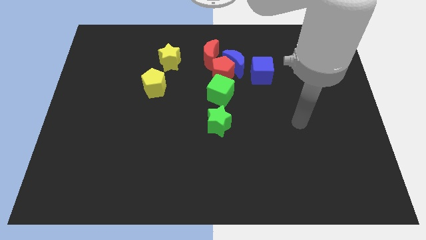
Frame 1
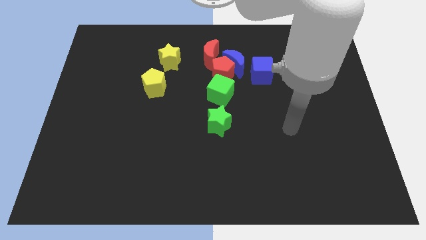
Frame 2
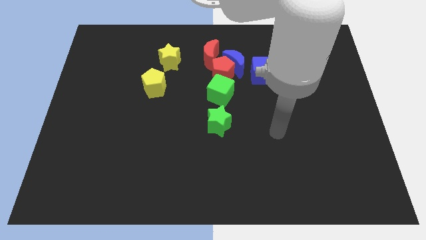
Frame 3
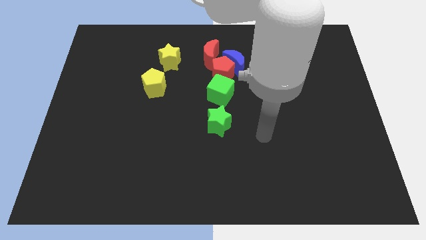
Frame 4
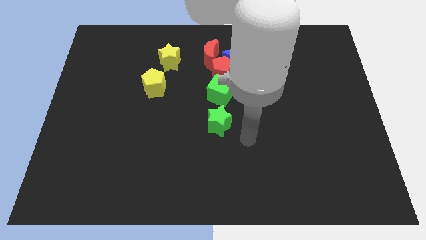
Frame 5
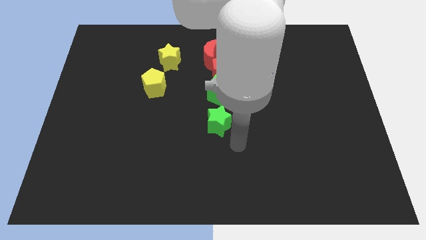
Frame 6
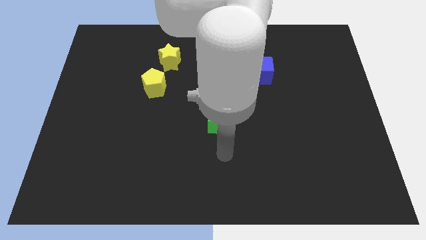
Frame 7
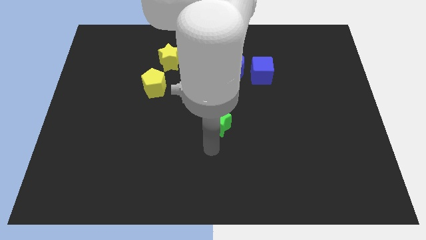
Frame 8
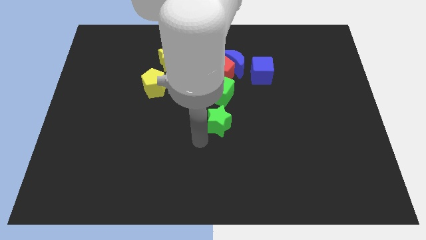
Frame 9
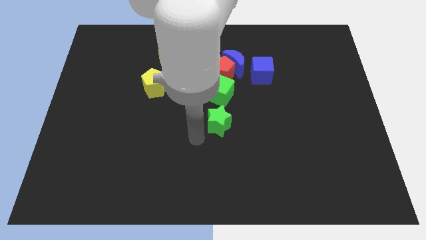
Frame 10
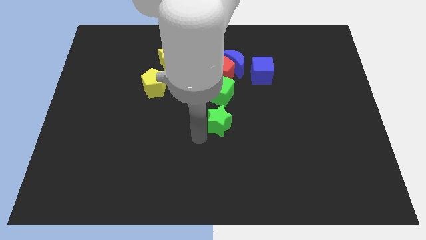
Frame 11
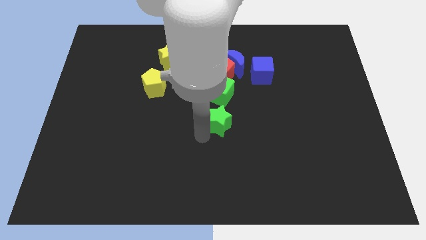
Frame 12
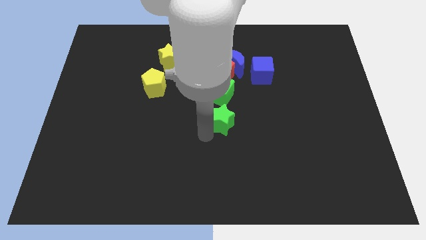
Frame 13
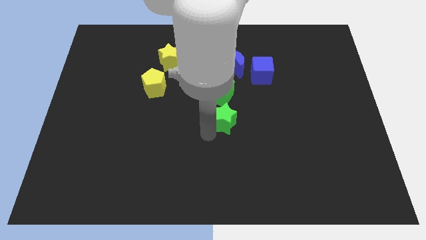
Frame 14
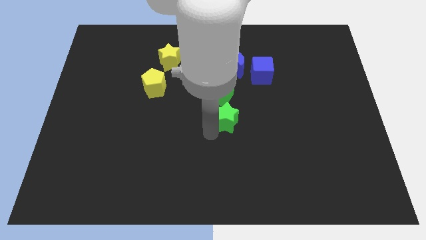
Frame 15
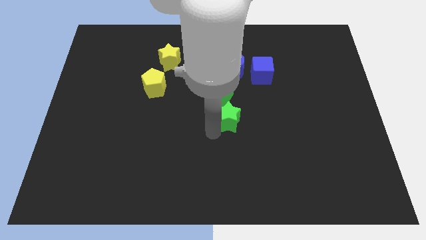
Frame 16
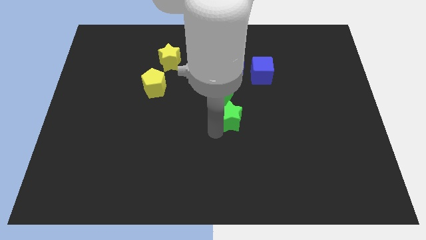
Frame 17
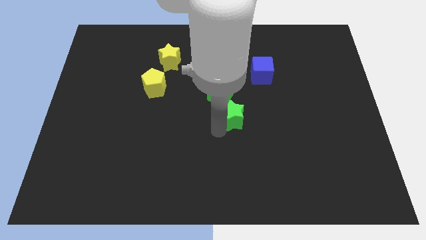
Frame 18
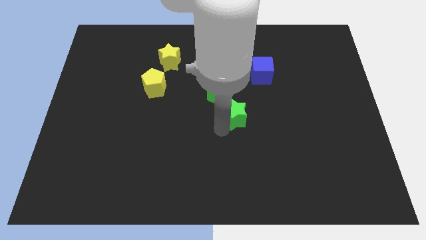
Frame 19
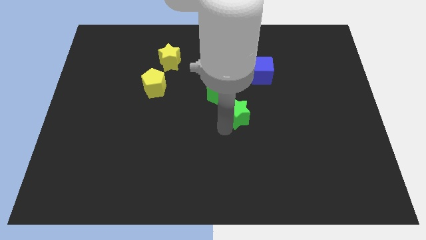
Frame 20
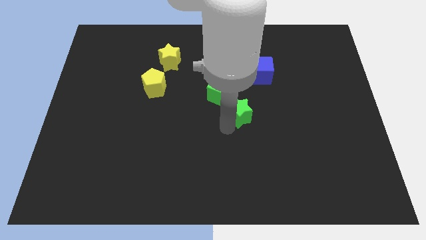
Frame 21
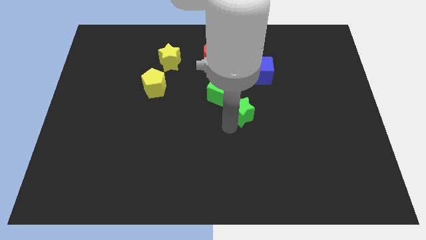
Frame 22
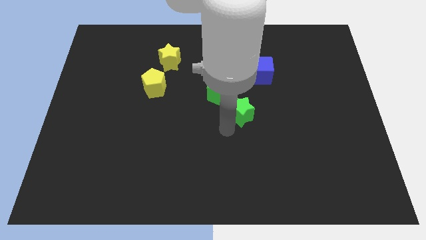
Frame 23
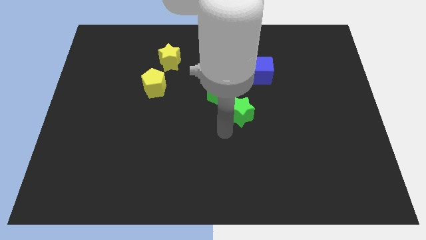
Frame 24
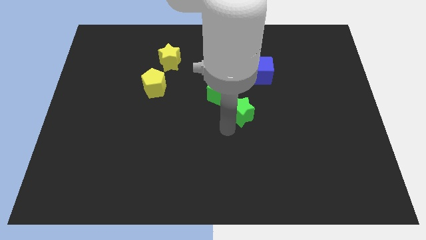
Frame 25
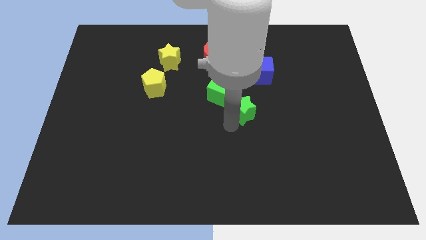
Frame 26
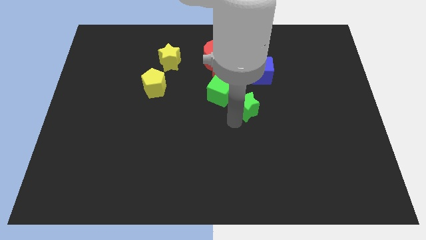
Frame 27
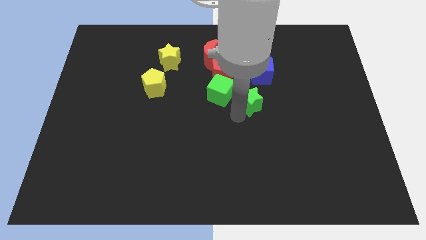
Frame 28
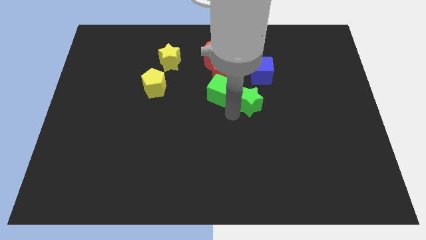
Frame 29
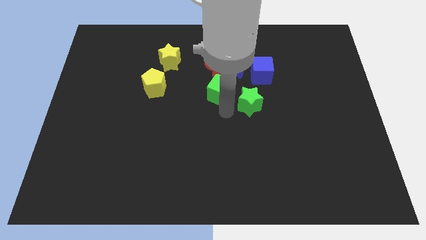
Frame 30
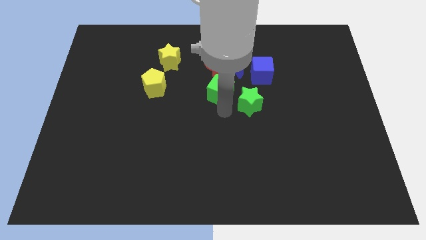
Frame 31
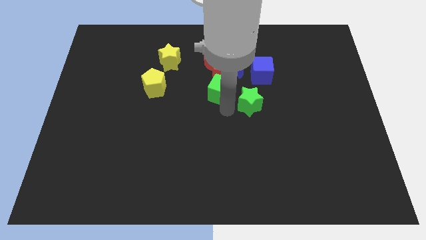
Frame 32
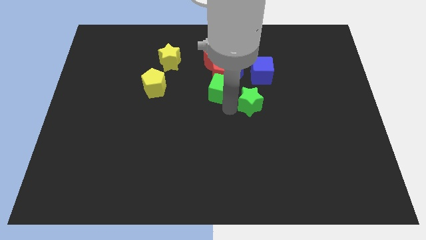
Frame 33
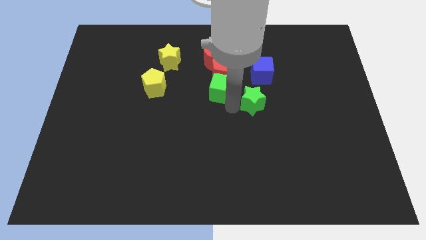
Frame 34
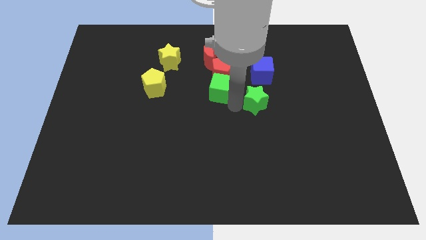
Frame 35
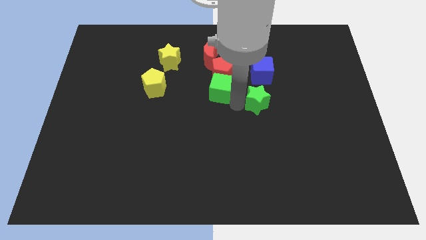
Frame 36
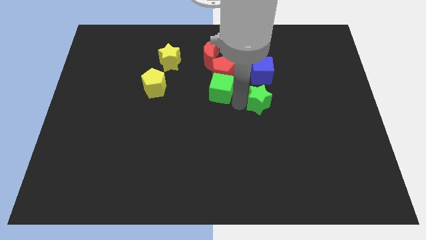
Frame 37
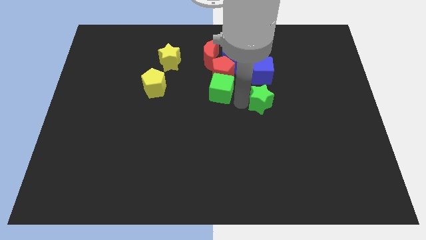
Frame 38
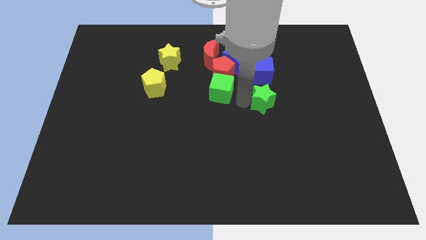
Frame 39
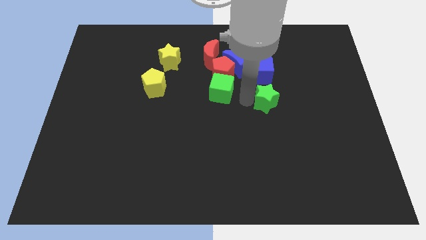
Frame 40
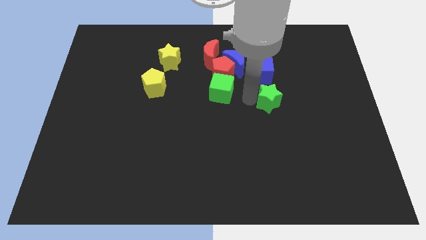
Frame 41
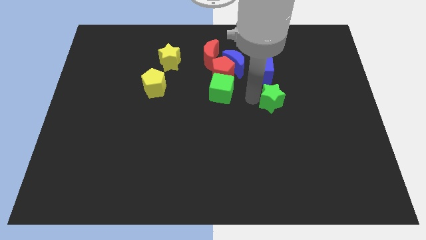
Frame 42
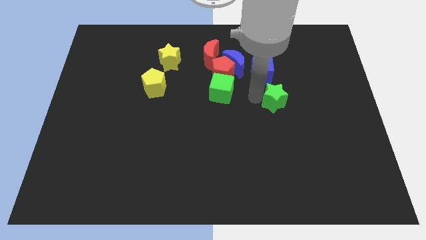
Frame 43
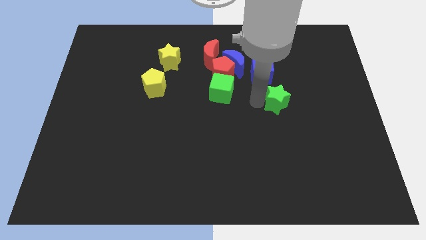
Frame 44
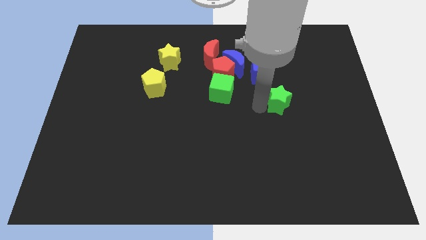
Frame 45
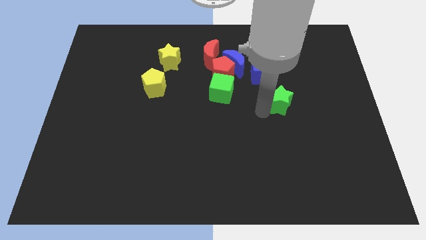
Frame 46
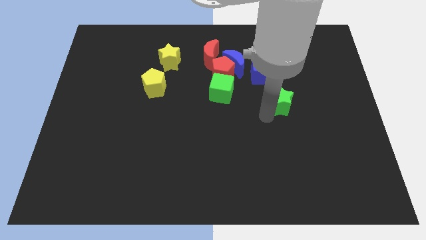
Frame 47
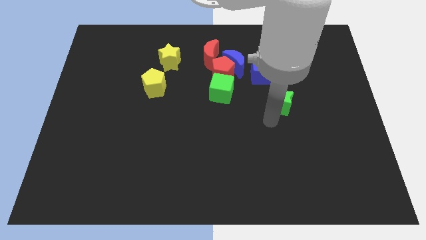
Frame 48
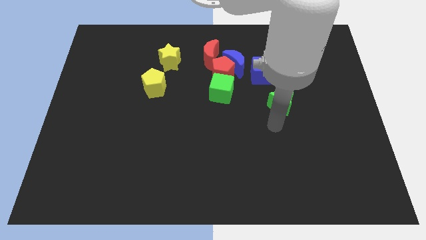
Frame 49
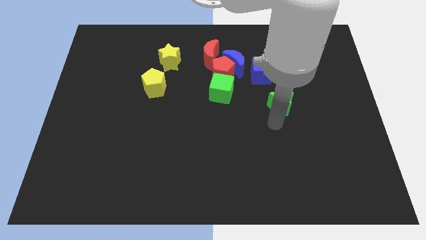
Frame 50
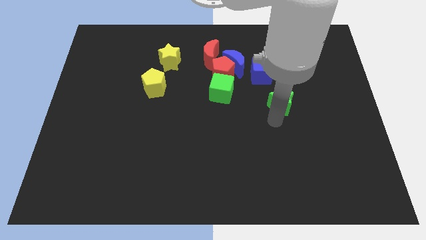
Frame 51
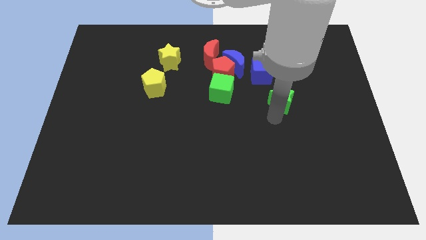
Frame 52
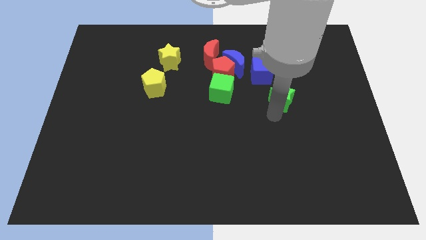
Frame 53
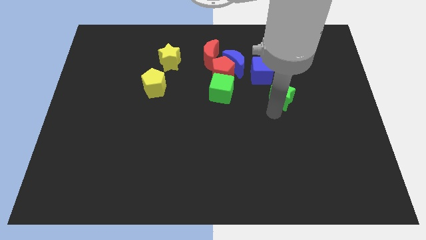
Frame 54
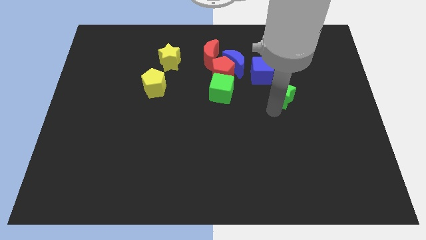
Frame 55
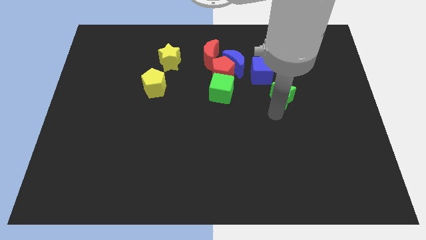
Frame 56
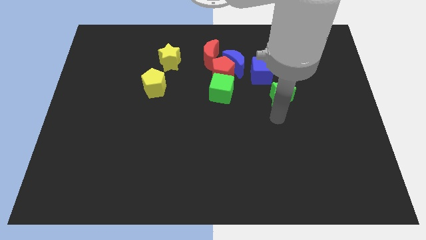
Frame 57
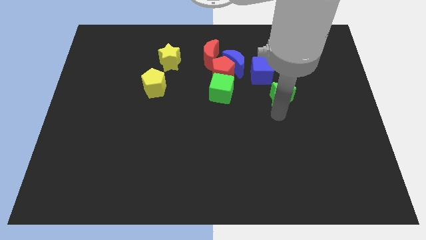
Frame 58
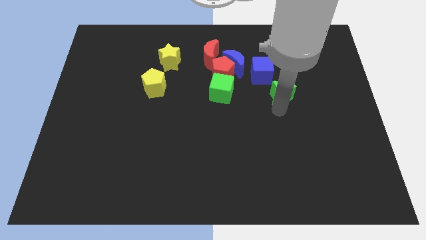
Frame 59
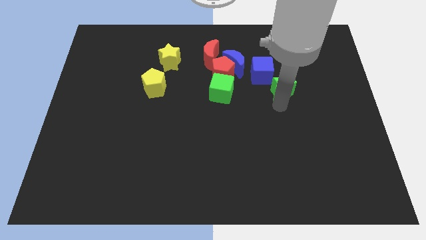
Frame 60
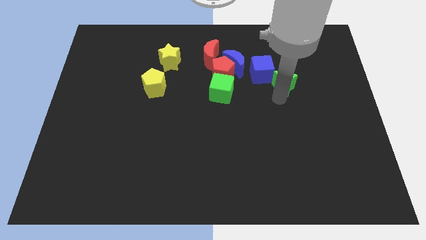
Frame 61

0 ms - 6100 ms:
push the green star to the right side of the blue cube

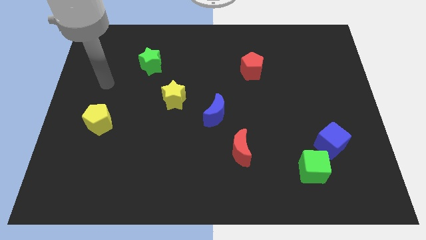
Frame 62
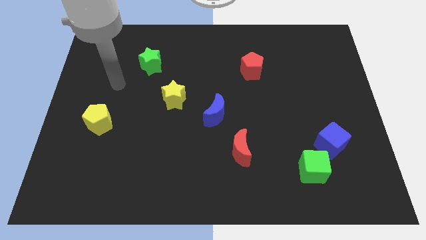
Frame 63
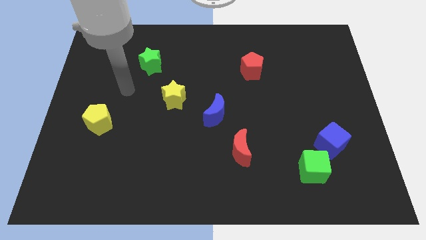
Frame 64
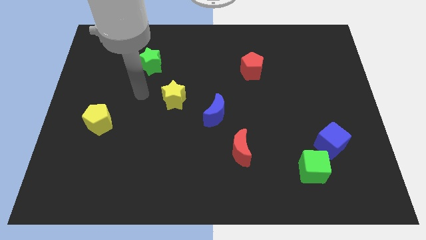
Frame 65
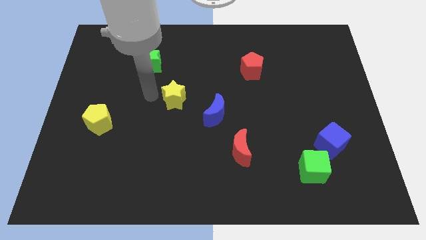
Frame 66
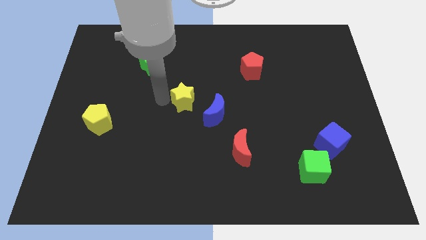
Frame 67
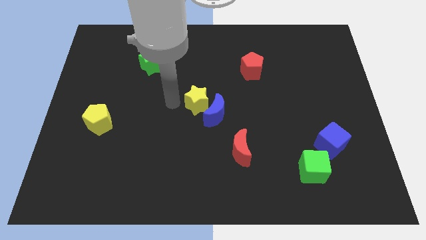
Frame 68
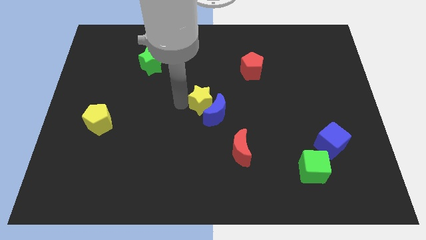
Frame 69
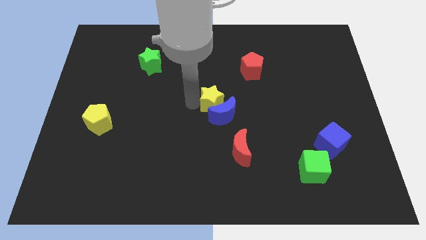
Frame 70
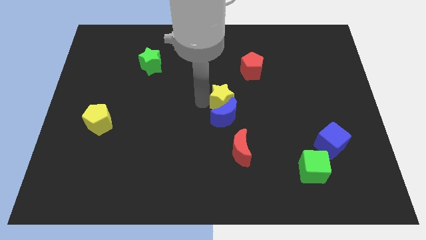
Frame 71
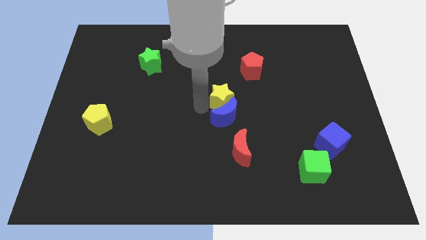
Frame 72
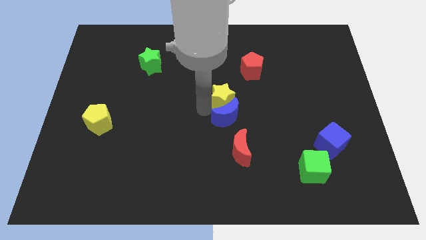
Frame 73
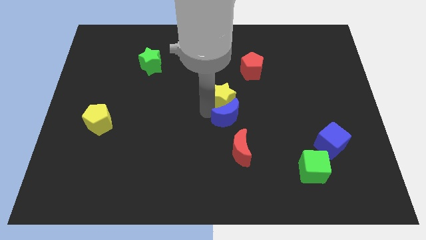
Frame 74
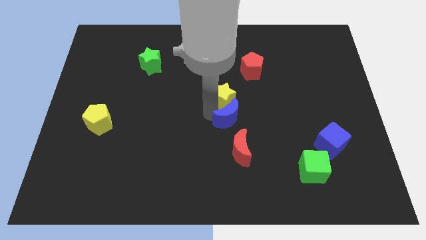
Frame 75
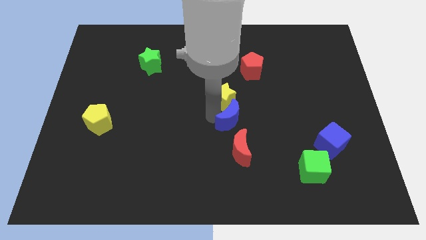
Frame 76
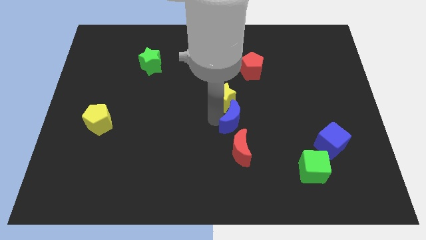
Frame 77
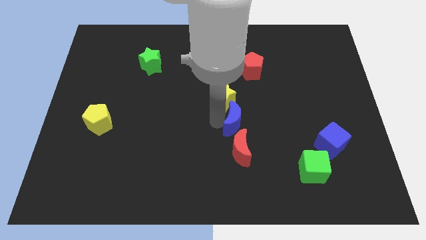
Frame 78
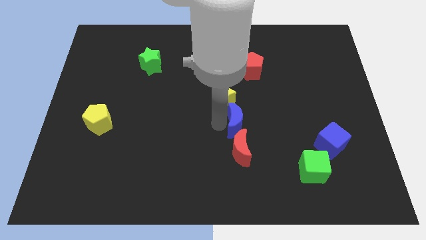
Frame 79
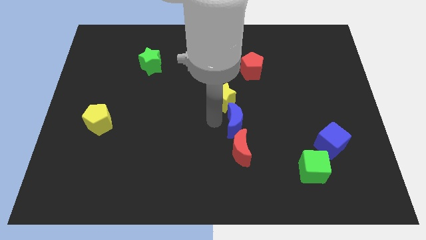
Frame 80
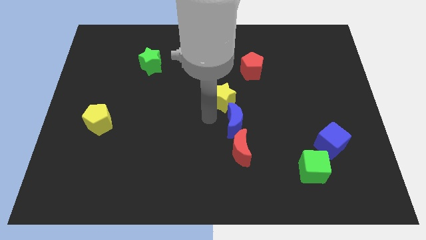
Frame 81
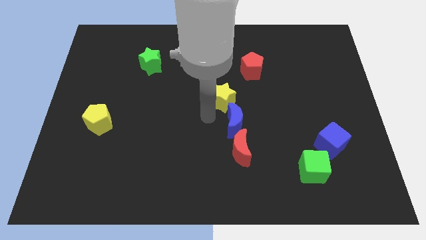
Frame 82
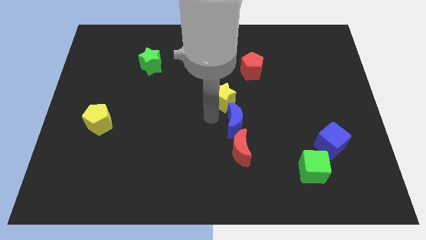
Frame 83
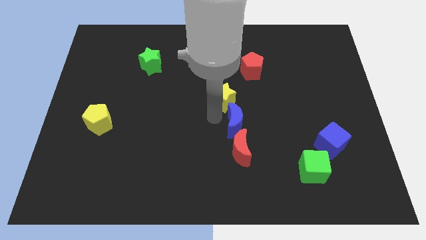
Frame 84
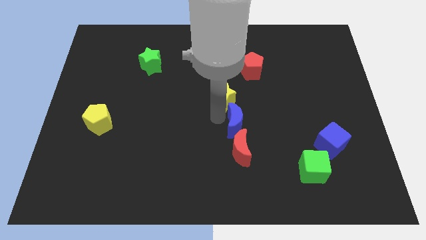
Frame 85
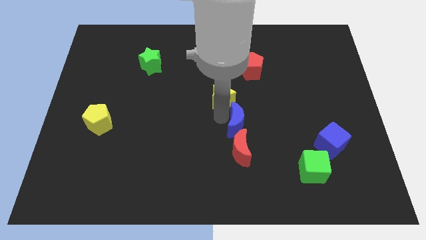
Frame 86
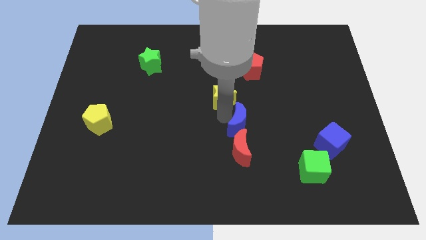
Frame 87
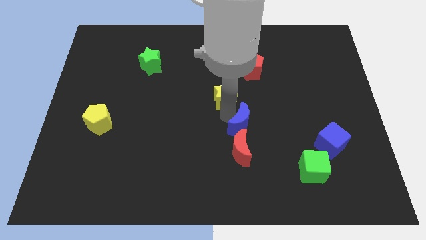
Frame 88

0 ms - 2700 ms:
push the blue moon diagonally up and to the right of the red moon
